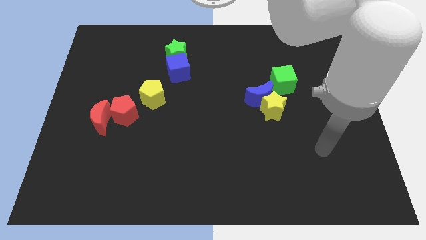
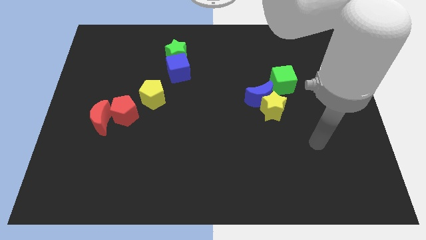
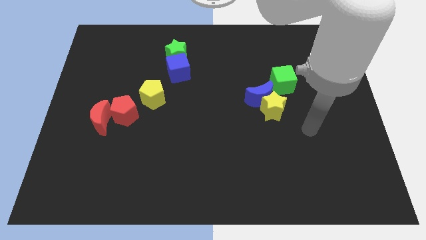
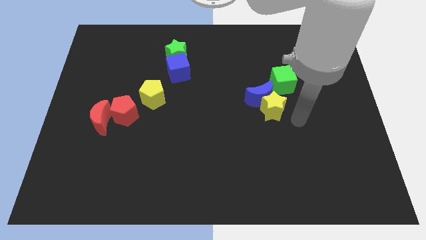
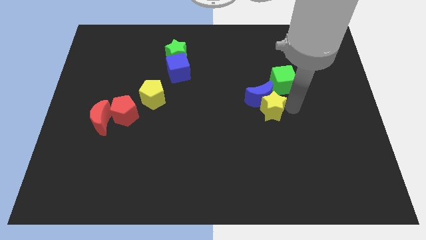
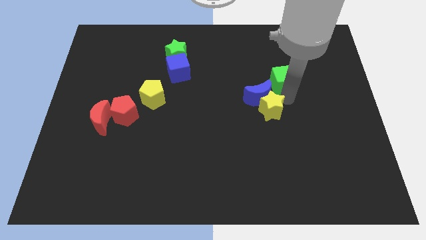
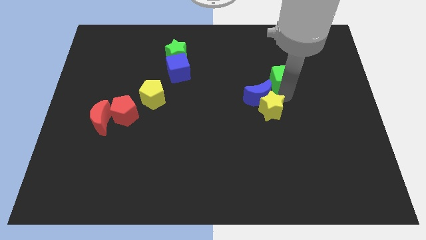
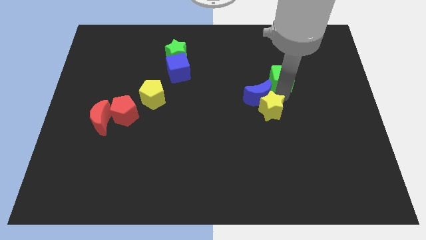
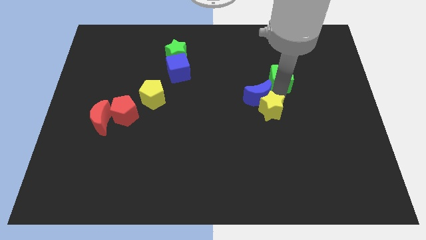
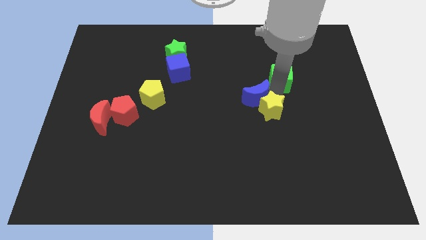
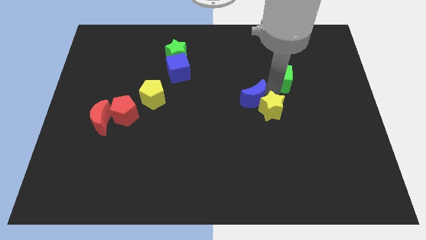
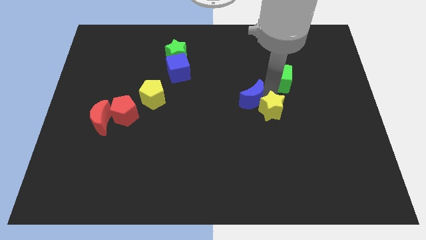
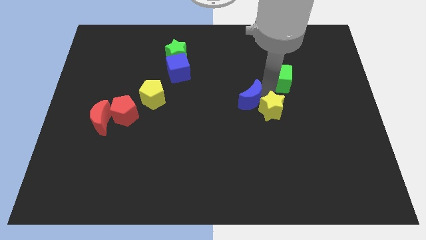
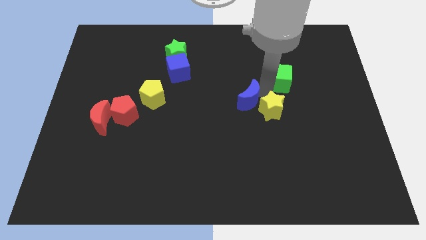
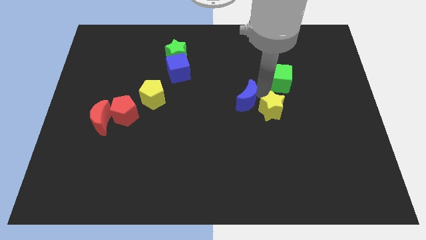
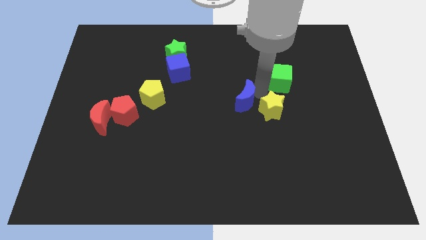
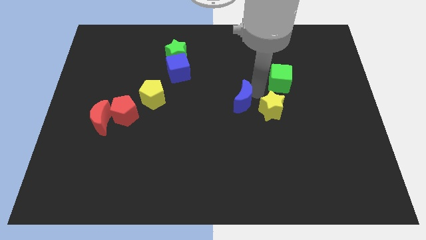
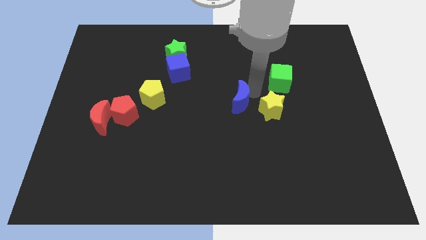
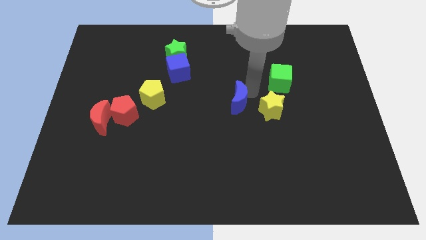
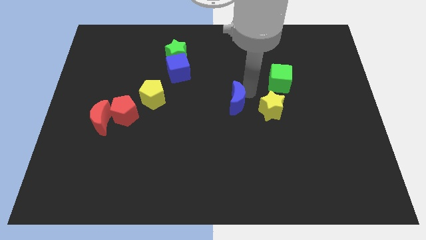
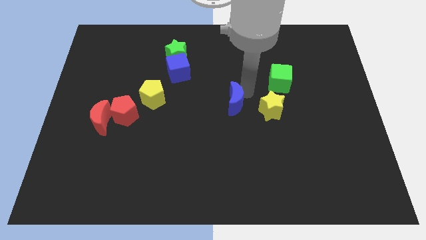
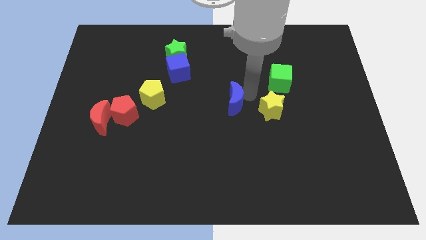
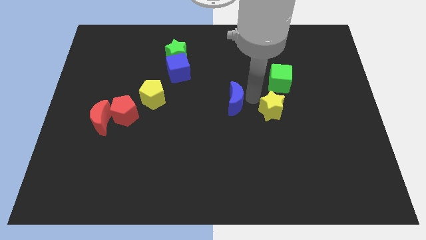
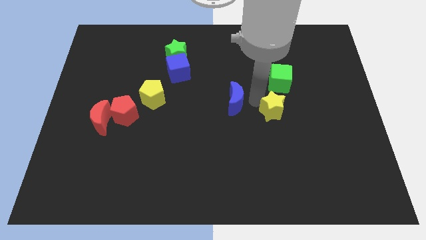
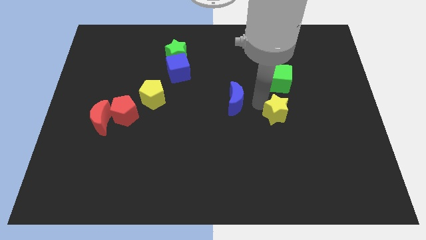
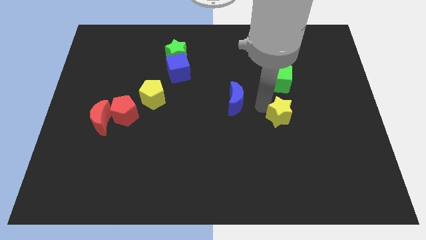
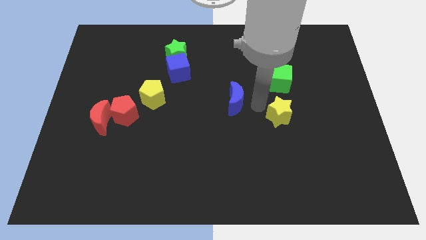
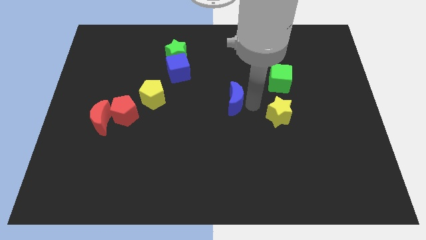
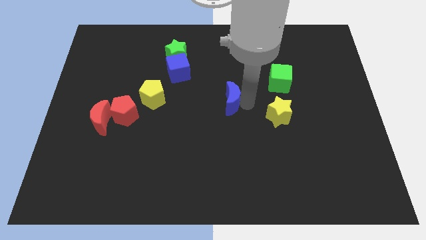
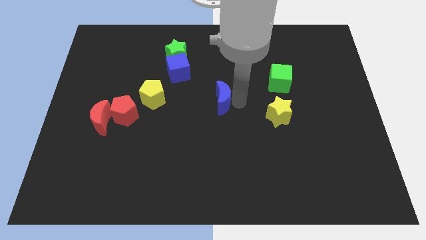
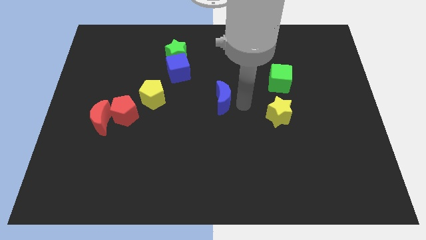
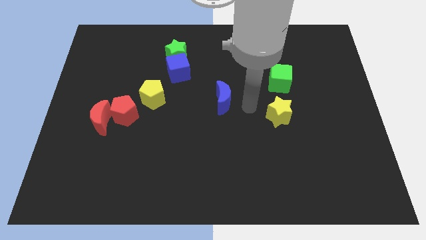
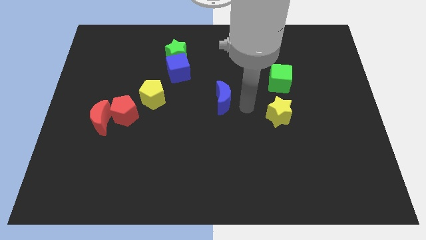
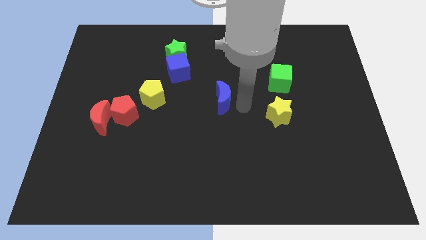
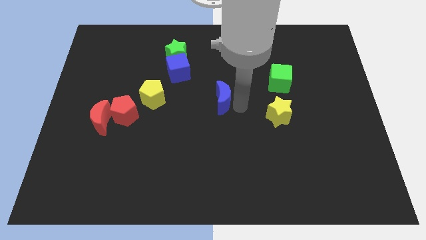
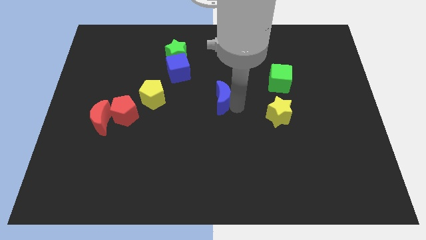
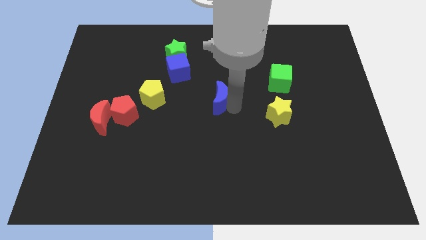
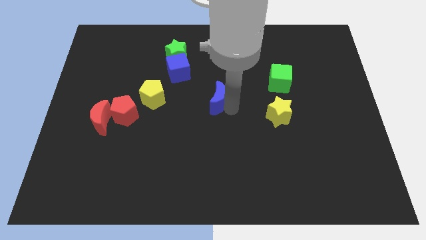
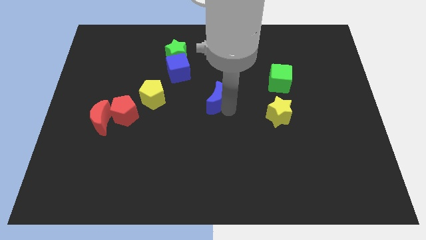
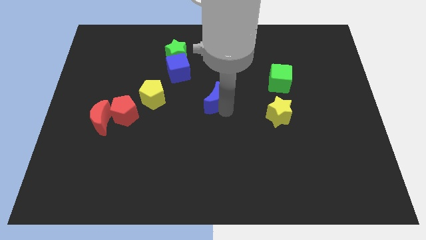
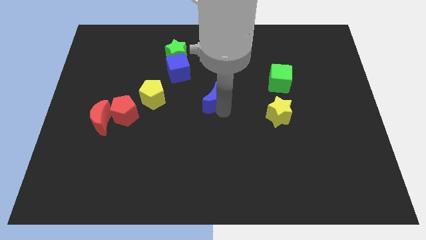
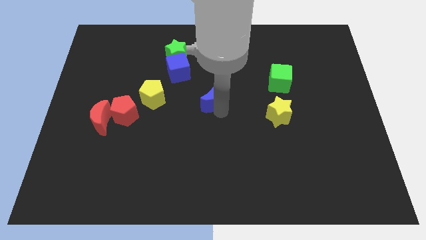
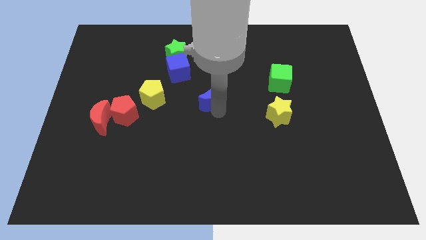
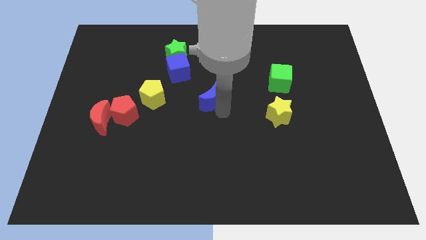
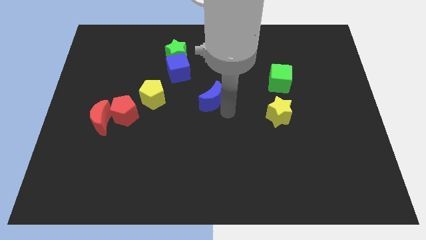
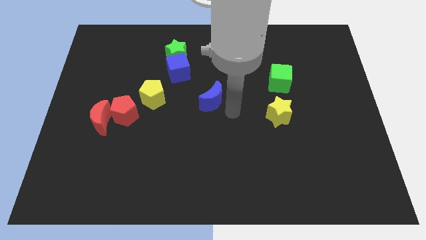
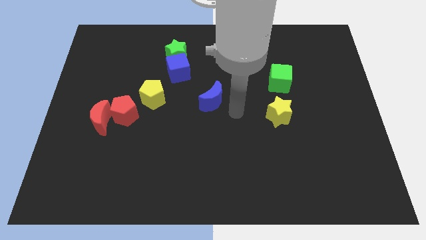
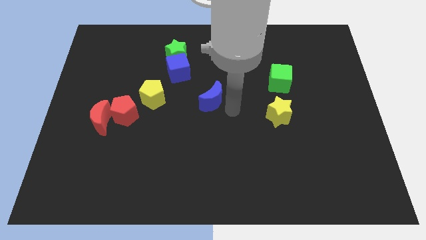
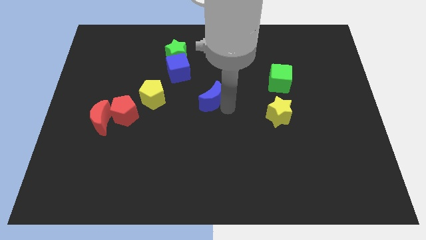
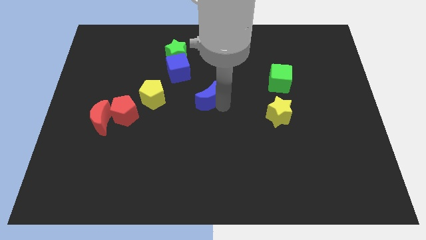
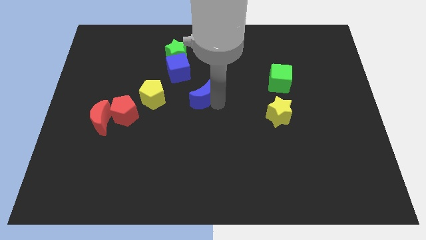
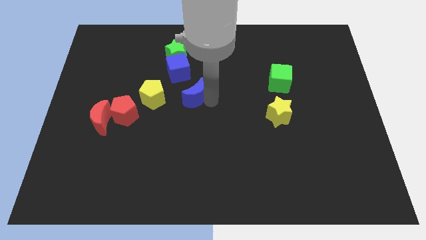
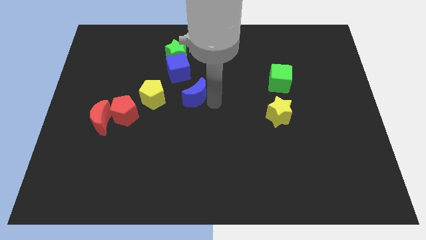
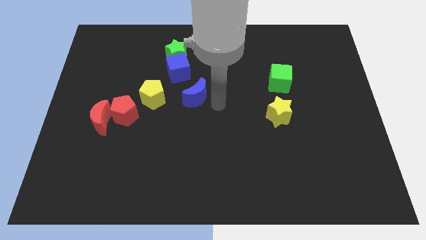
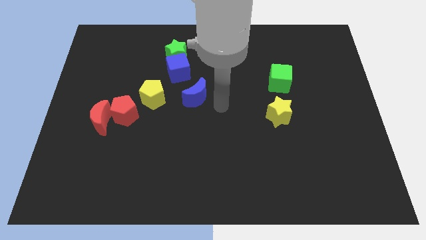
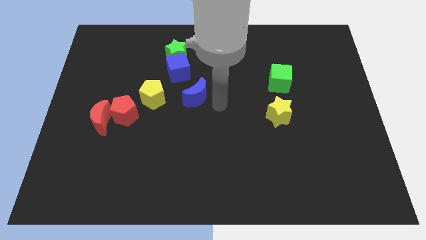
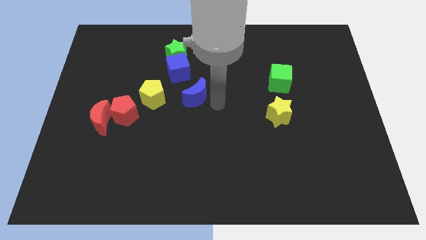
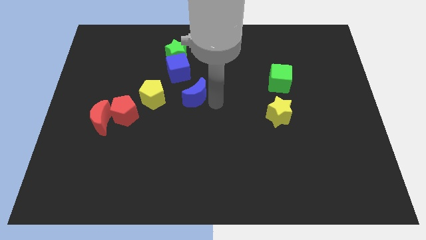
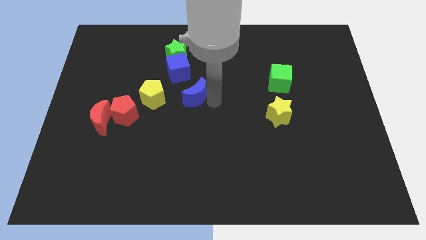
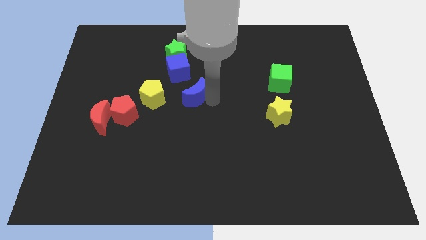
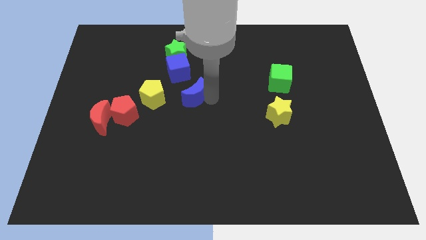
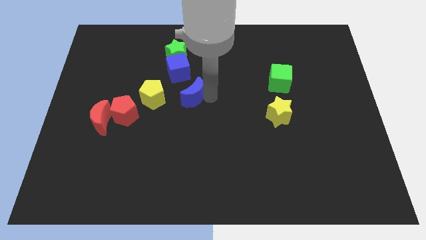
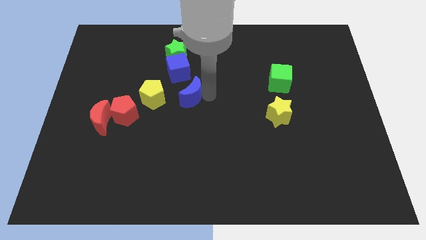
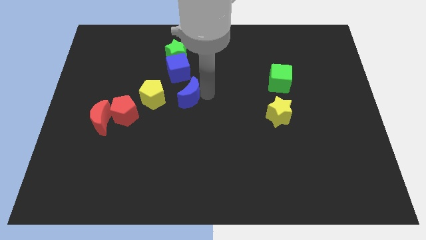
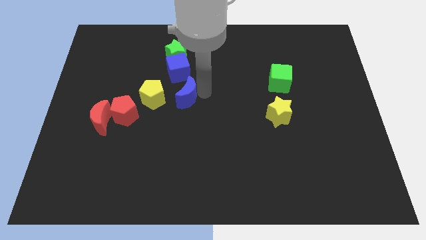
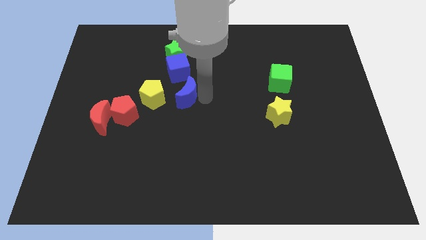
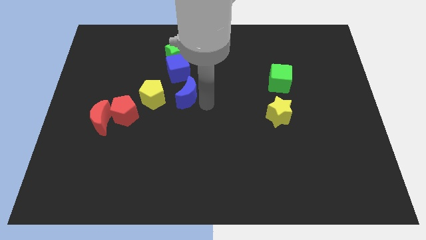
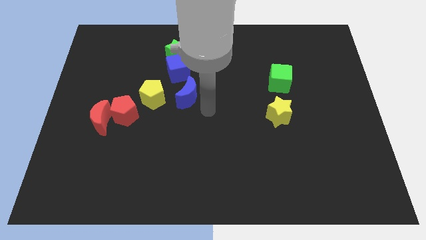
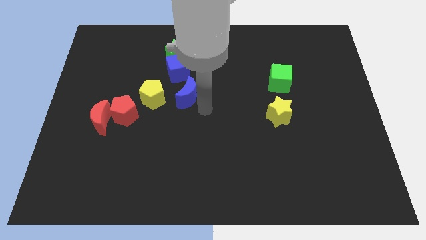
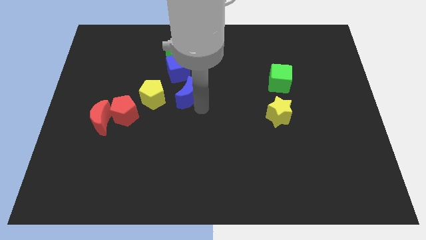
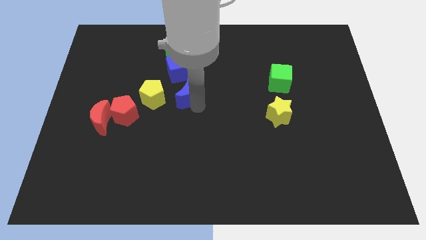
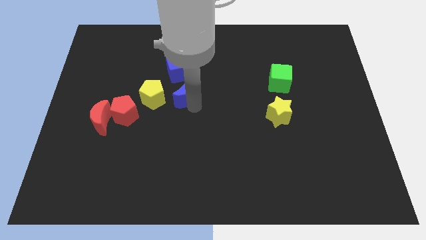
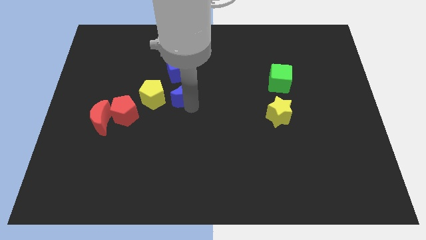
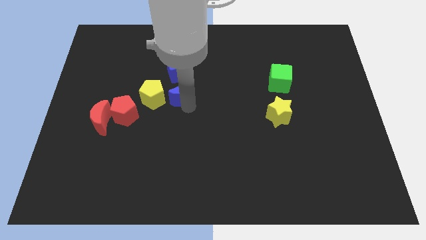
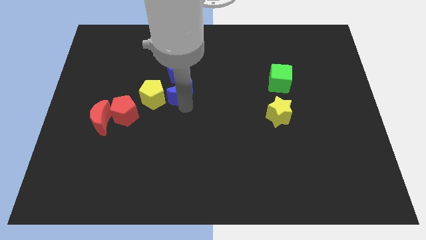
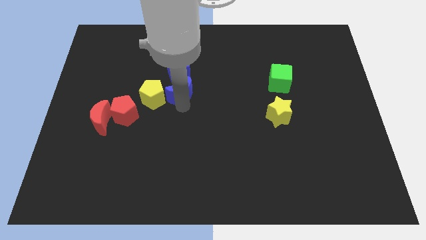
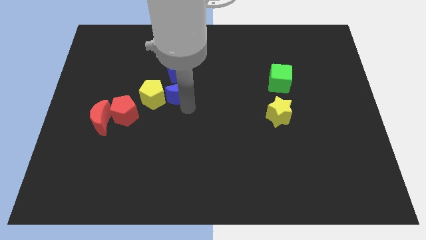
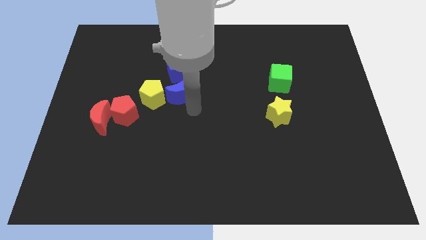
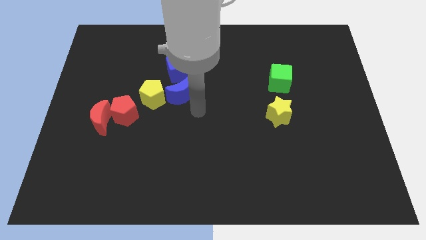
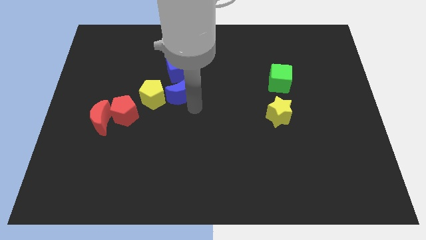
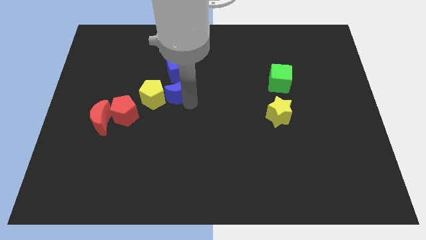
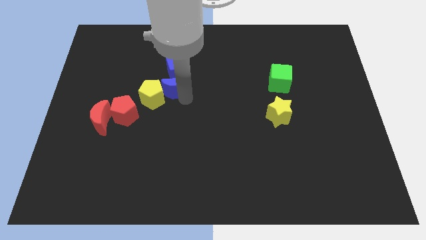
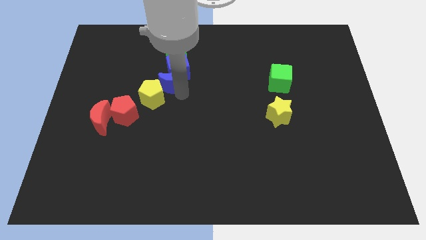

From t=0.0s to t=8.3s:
push the blue moon to the top of the yellow pentagon
